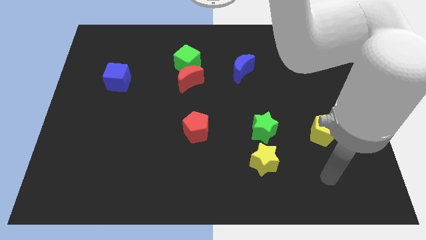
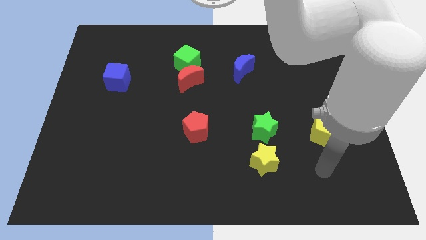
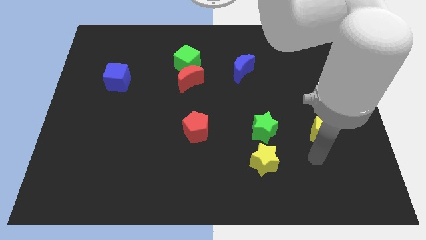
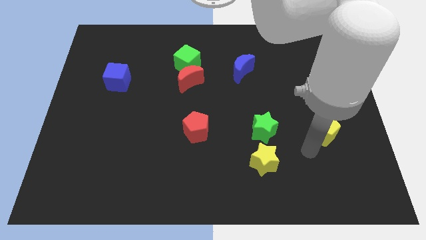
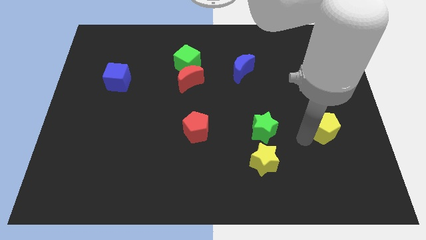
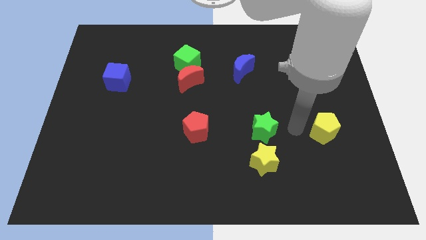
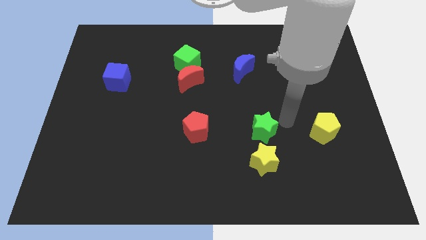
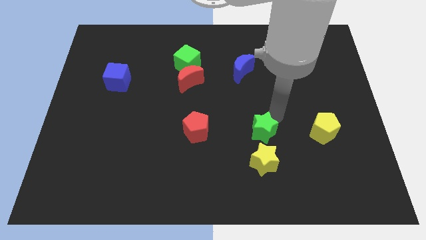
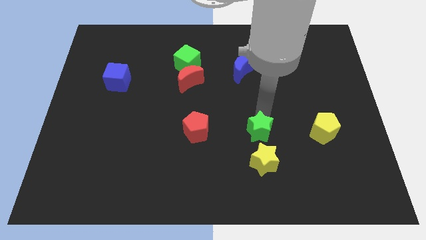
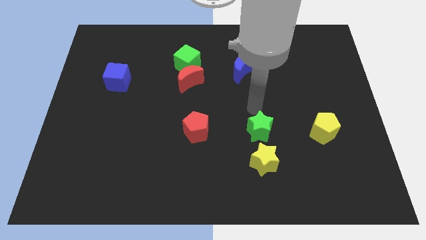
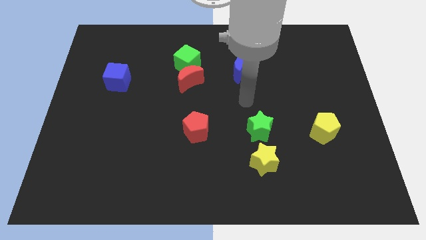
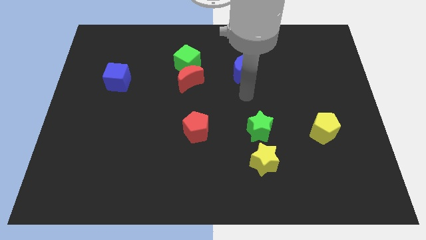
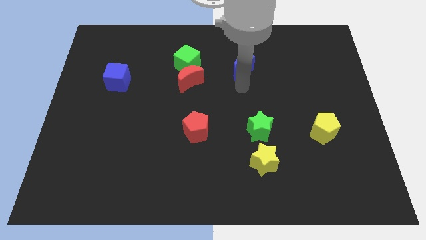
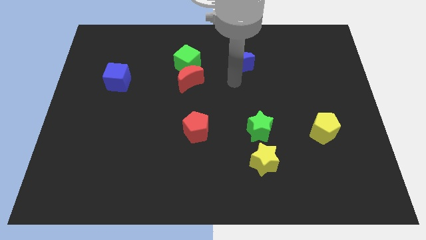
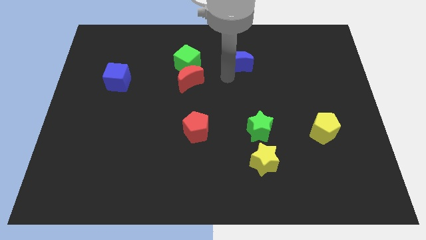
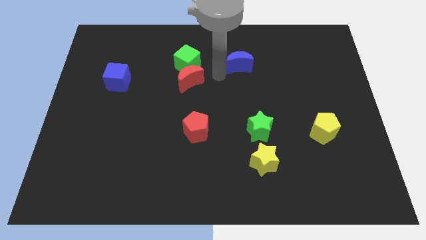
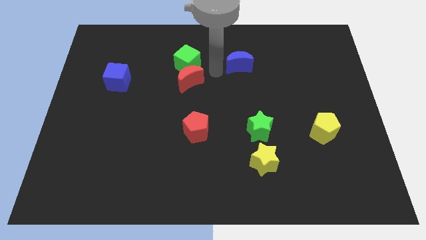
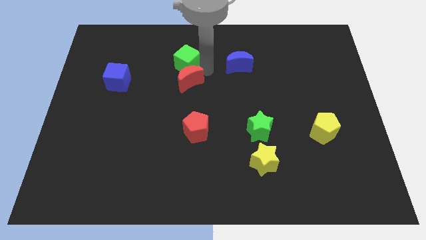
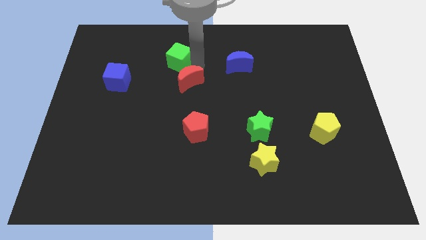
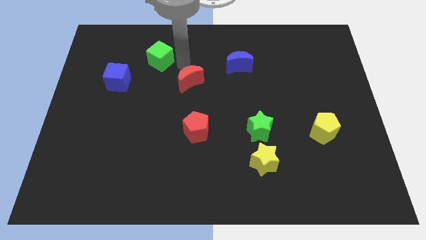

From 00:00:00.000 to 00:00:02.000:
move the red moon away from the green cube

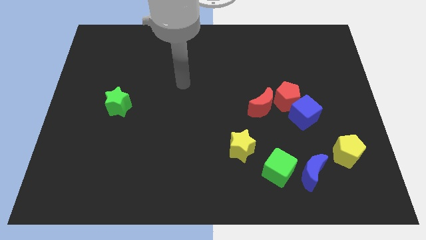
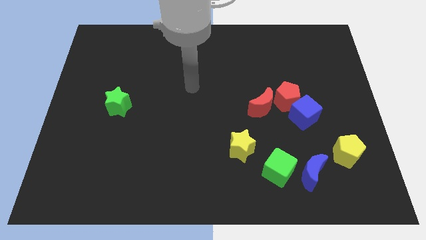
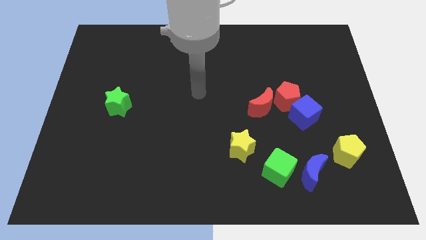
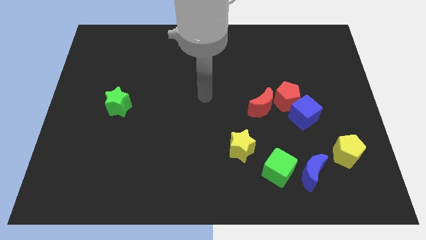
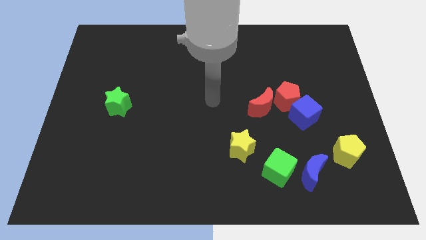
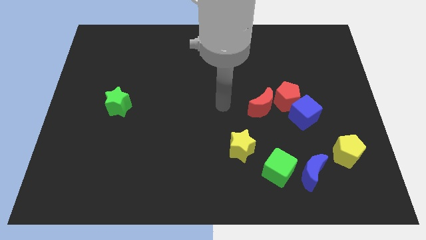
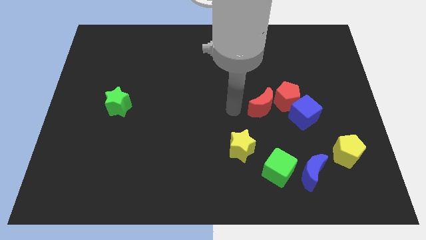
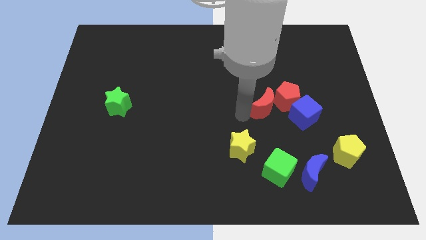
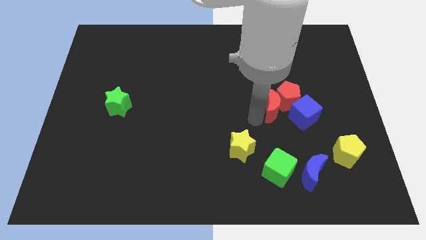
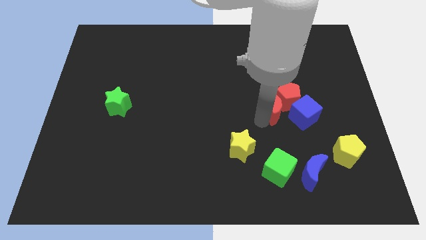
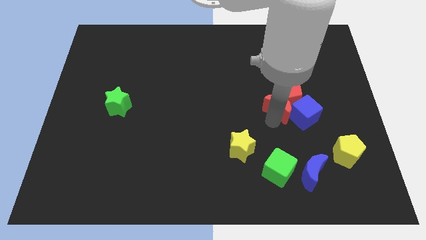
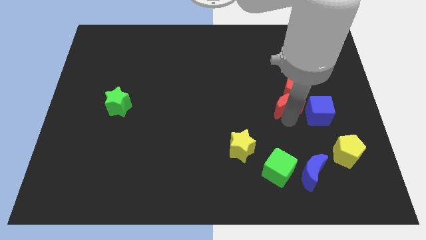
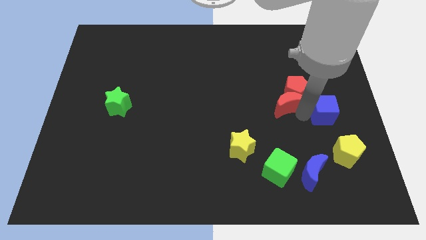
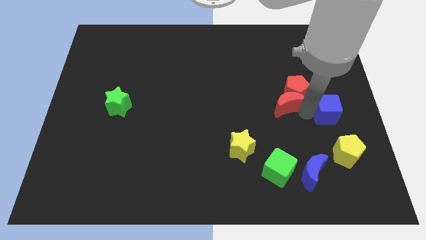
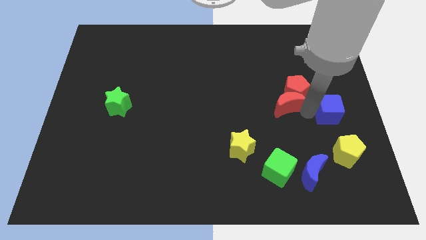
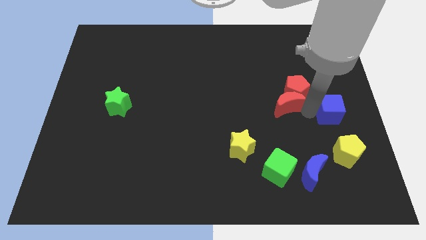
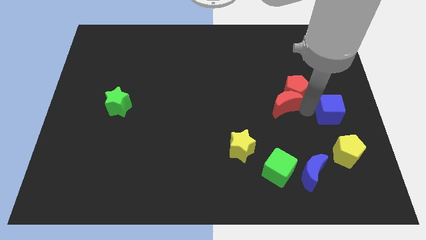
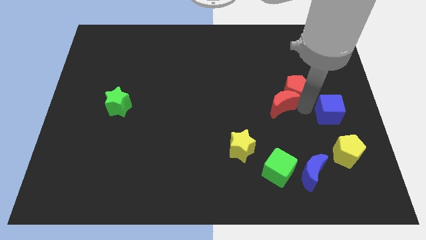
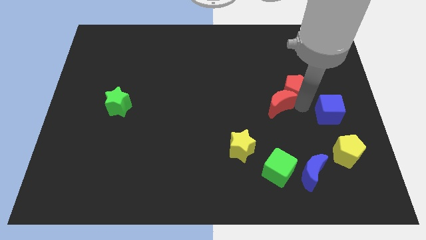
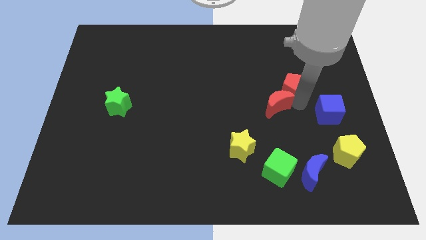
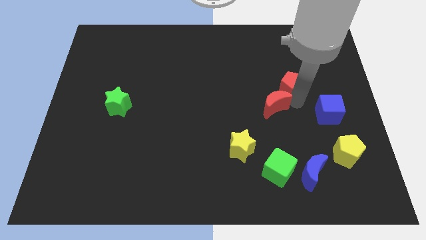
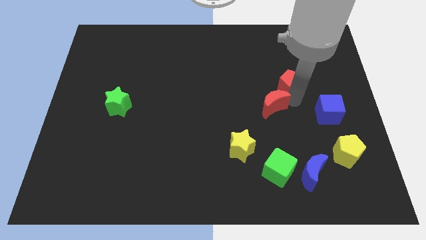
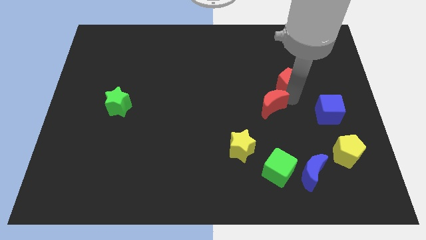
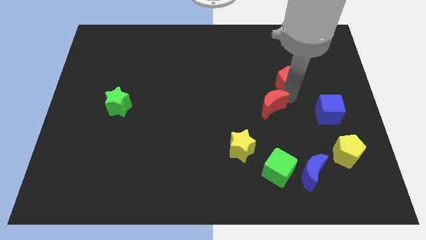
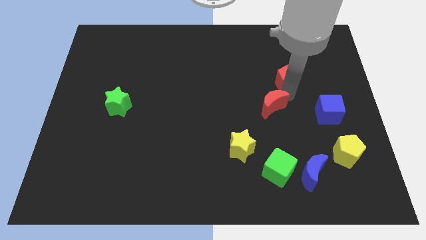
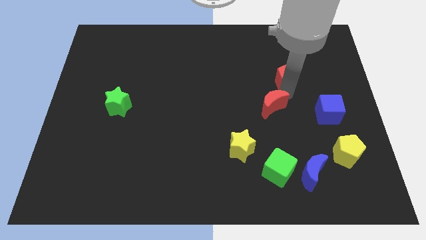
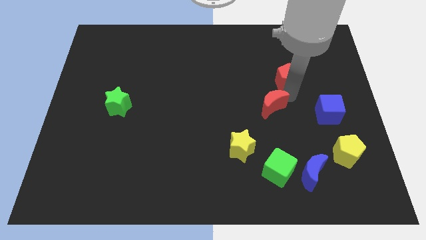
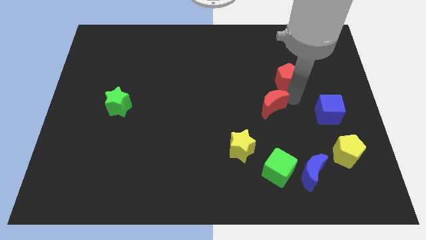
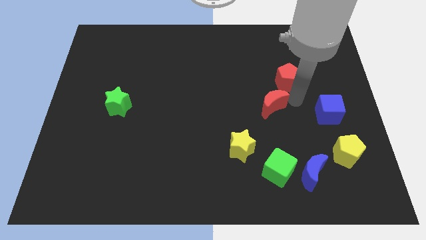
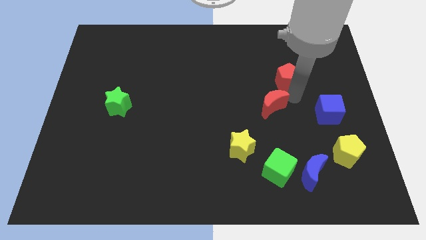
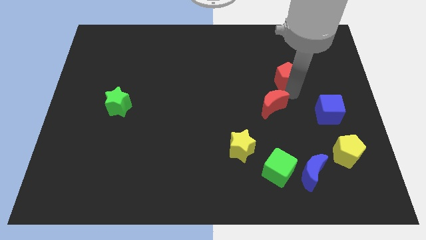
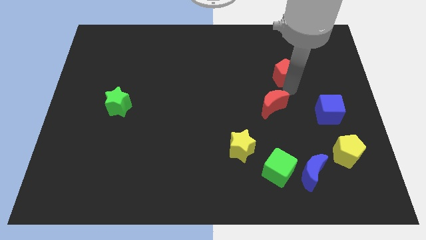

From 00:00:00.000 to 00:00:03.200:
pull the red pentagon apart from the blue cube and red moon

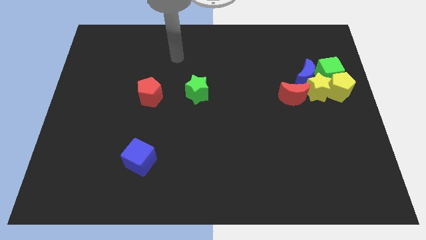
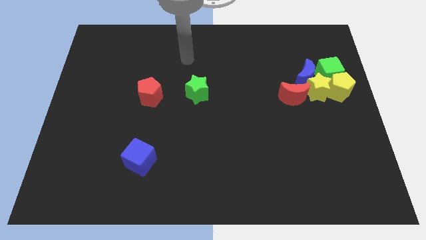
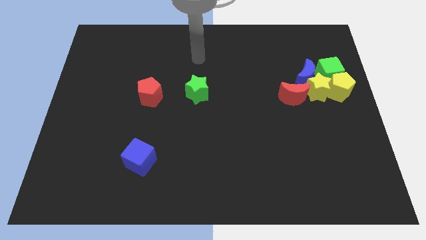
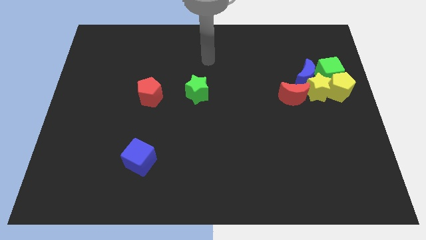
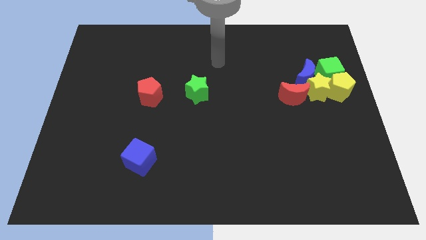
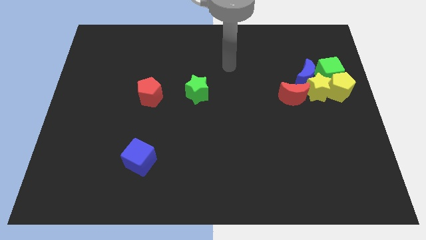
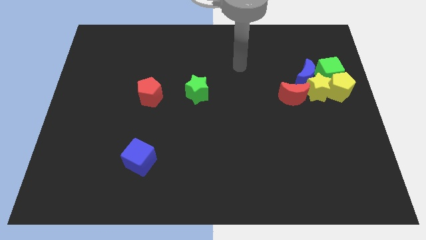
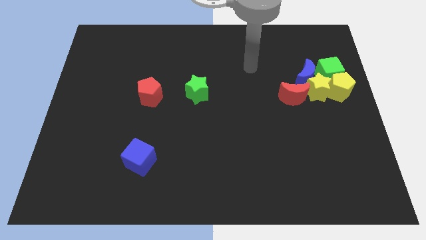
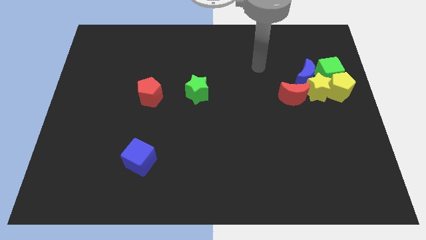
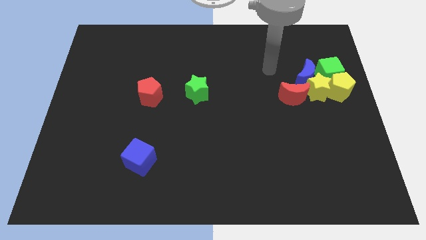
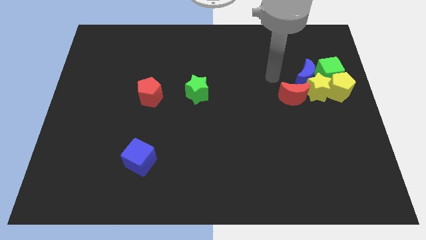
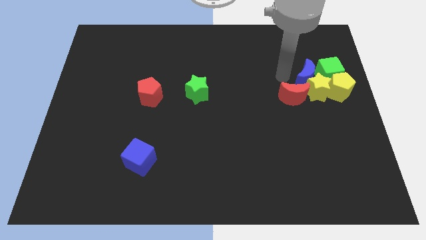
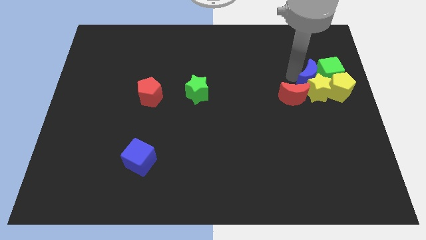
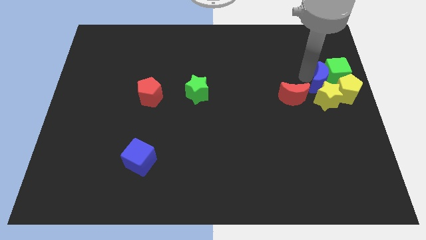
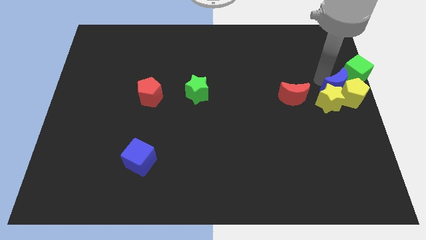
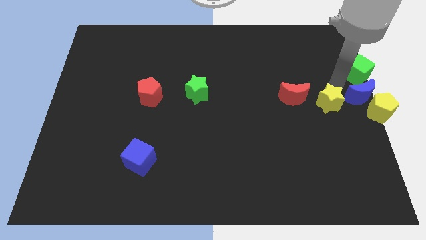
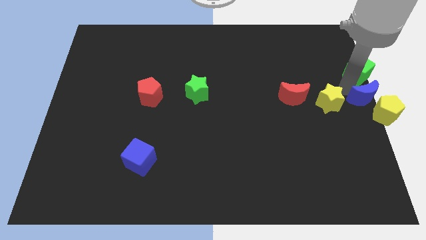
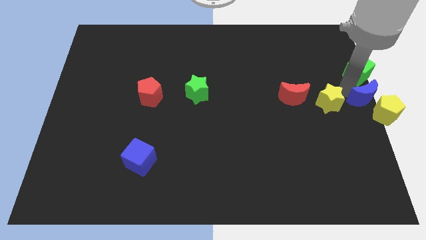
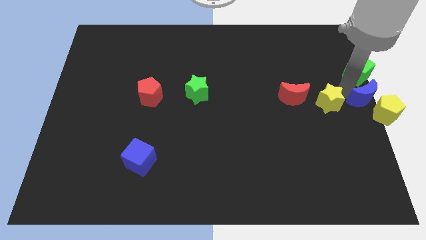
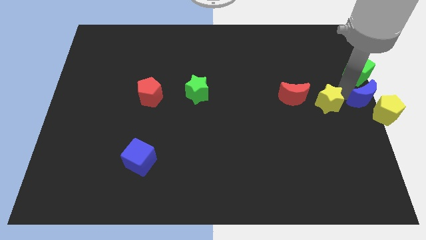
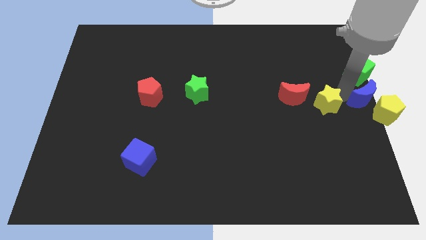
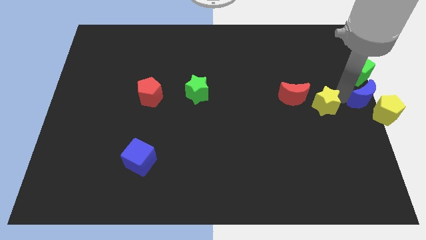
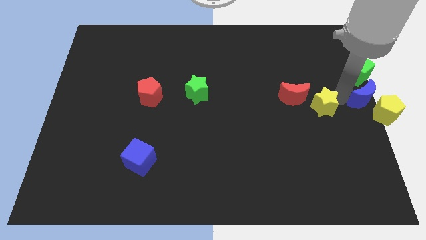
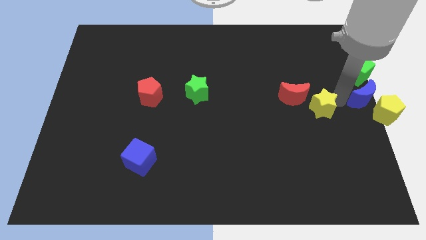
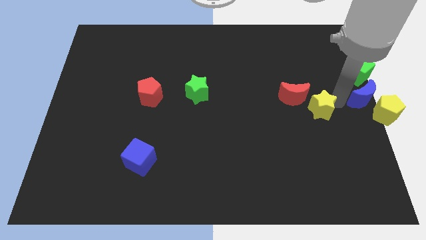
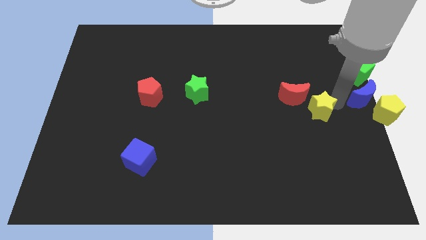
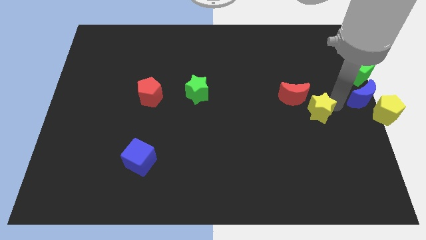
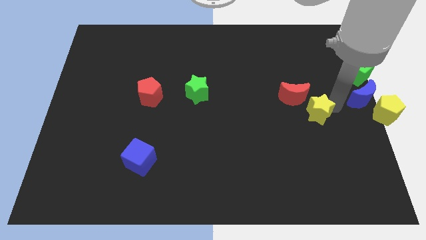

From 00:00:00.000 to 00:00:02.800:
move the yellow star away from the clump

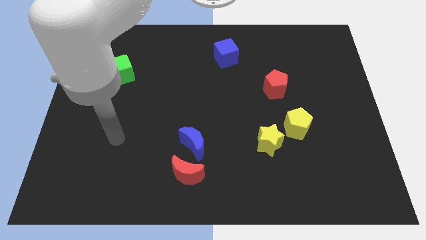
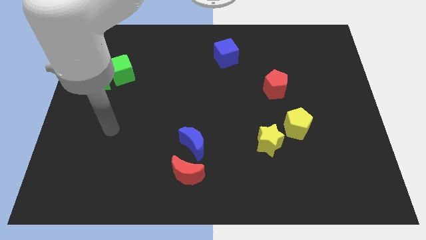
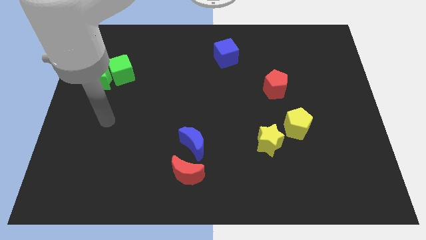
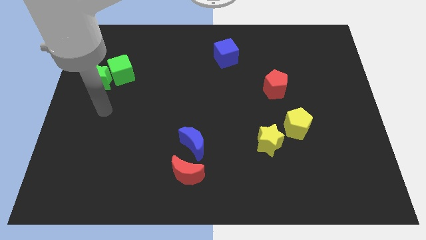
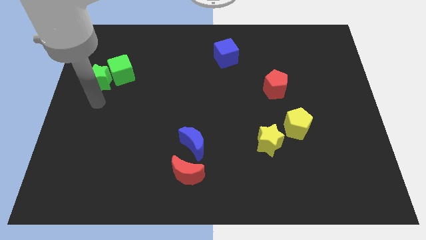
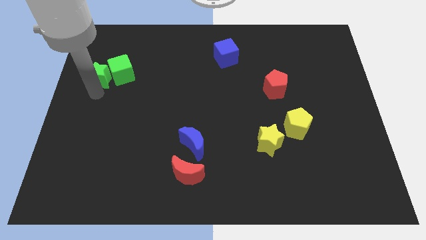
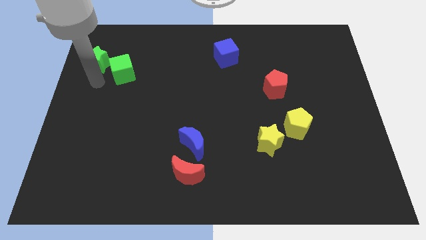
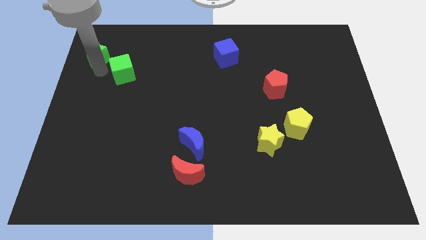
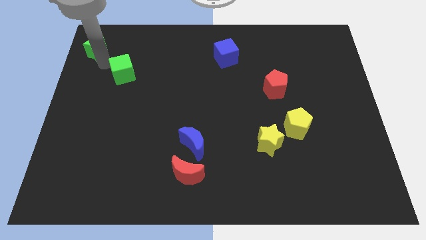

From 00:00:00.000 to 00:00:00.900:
pull the green cube apart from the green star

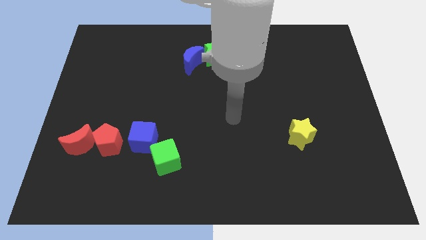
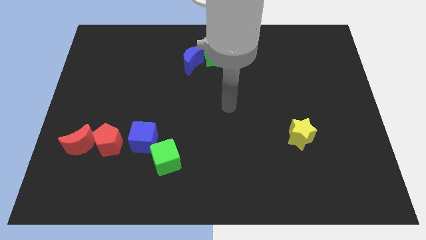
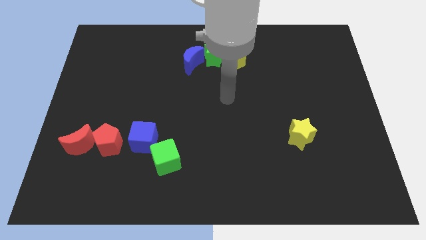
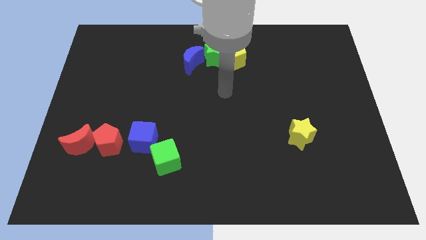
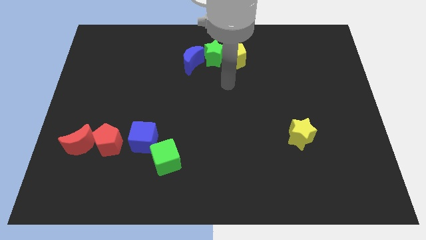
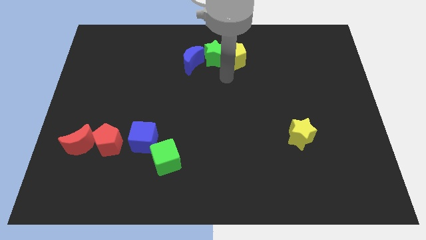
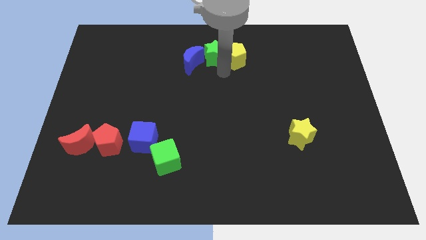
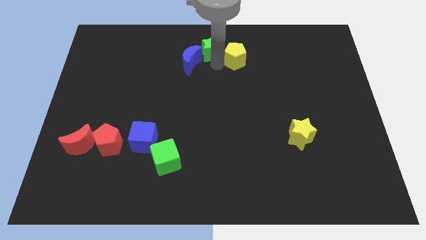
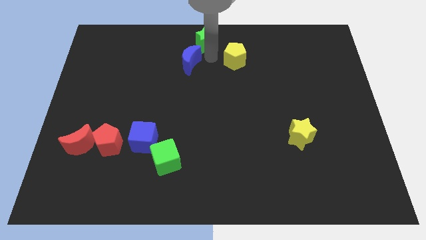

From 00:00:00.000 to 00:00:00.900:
separate the yellow pentagon from the green star
